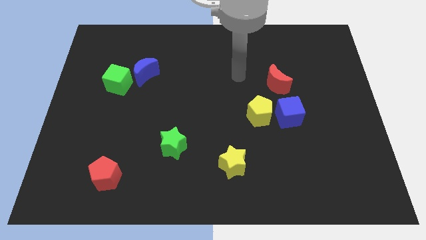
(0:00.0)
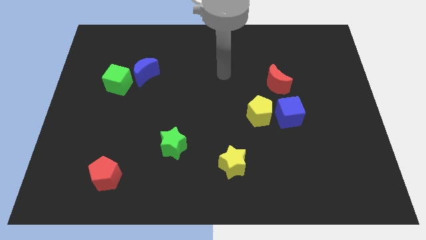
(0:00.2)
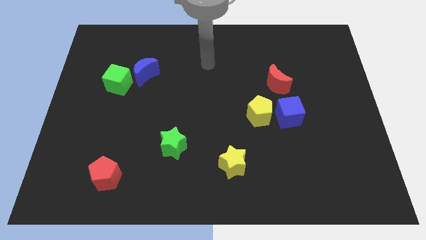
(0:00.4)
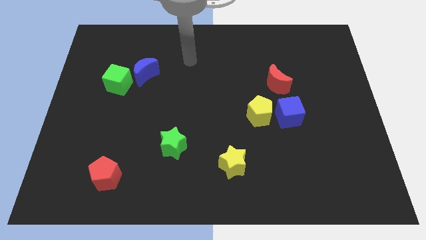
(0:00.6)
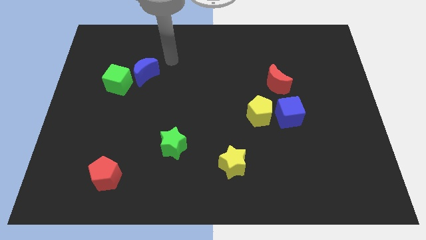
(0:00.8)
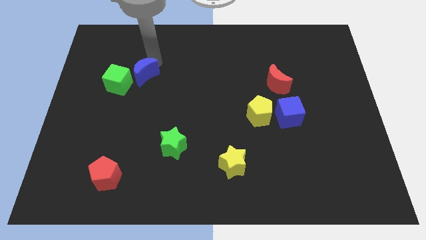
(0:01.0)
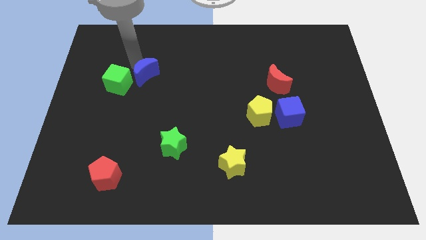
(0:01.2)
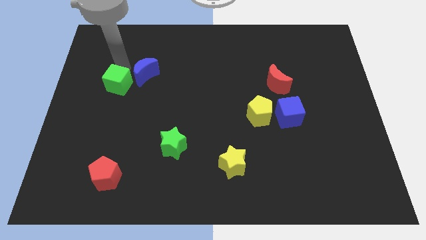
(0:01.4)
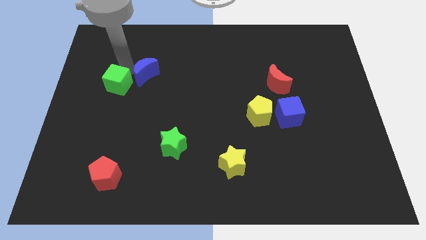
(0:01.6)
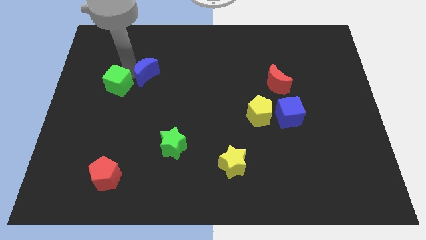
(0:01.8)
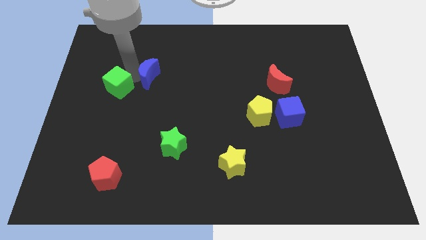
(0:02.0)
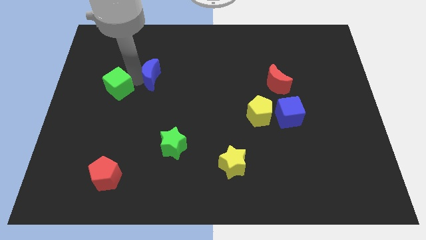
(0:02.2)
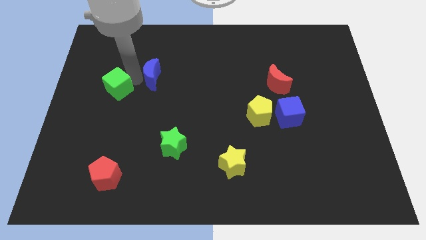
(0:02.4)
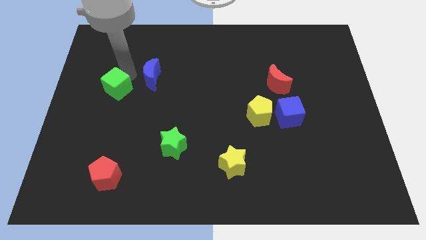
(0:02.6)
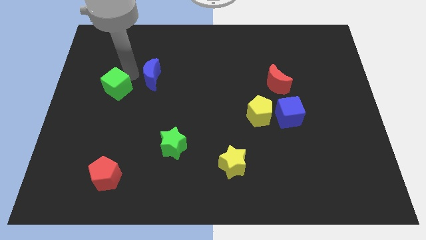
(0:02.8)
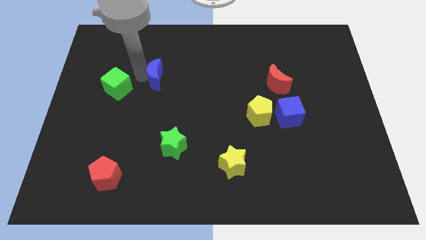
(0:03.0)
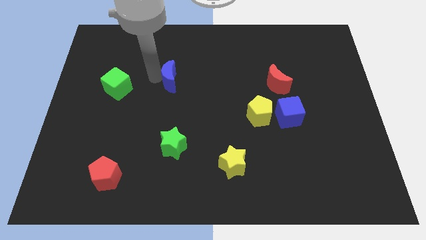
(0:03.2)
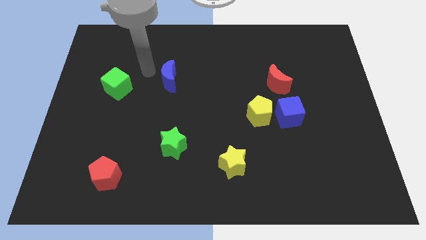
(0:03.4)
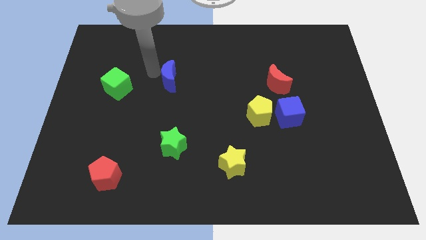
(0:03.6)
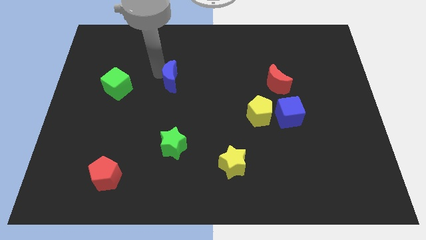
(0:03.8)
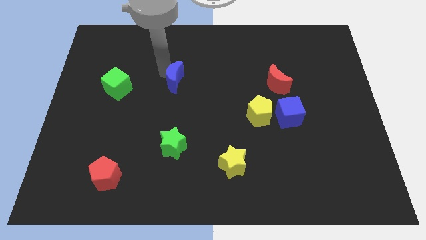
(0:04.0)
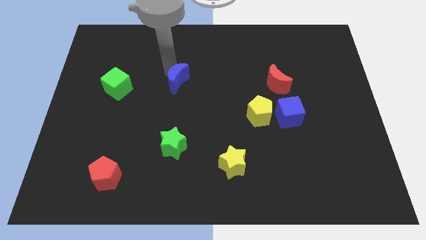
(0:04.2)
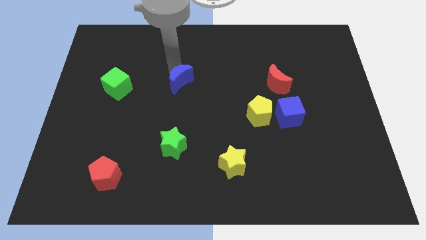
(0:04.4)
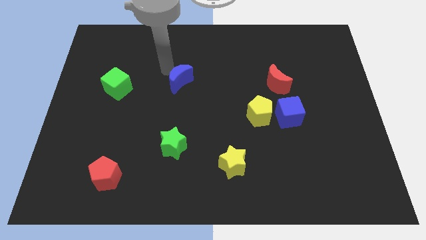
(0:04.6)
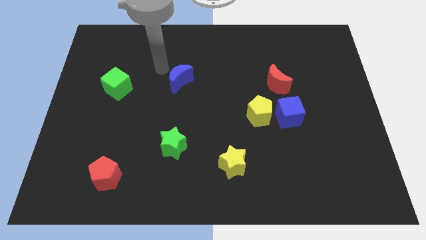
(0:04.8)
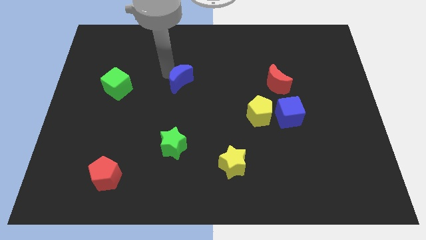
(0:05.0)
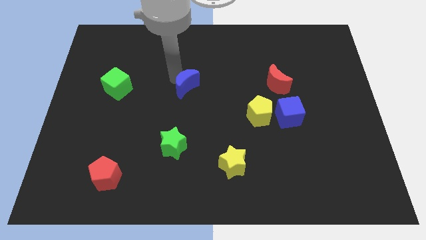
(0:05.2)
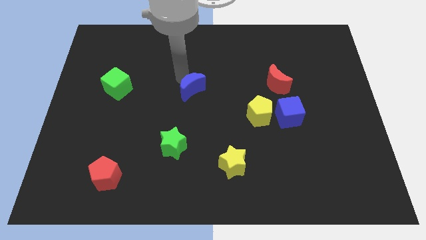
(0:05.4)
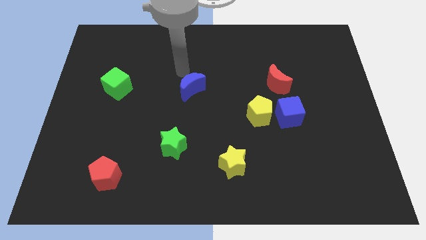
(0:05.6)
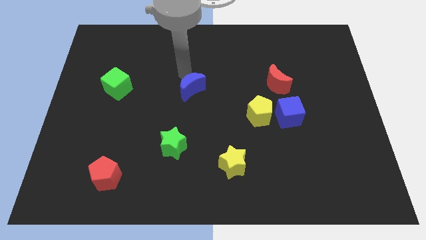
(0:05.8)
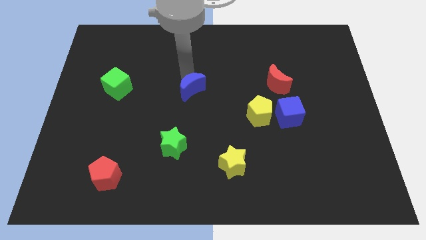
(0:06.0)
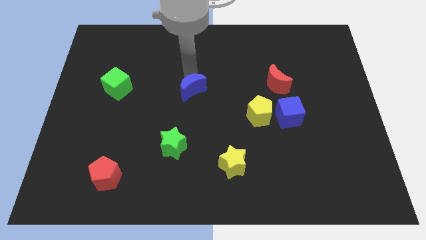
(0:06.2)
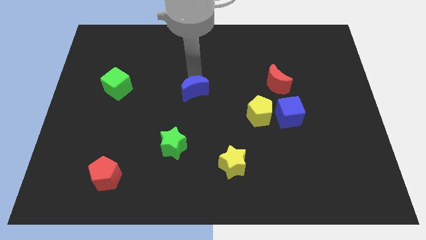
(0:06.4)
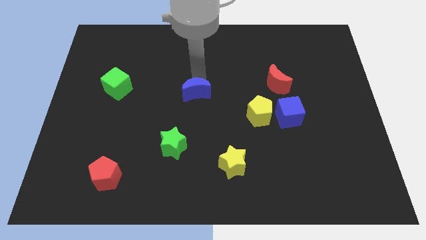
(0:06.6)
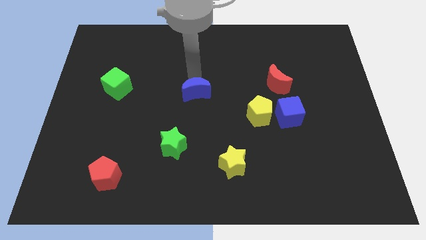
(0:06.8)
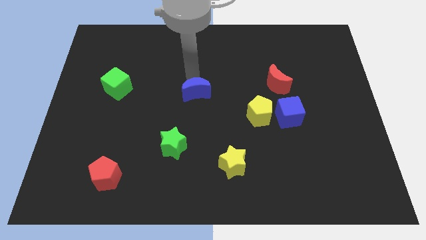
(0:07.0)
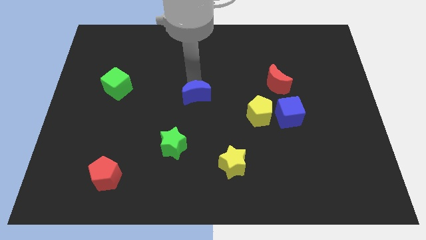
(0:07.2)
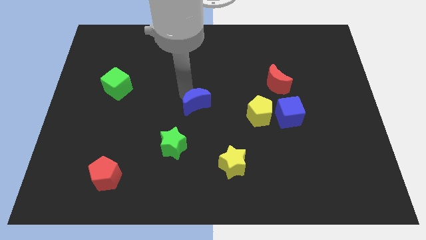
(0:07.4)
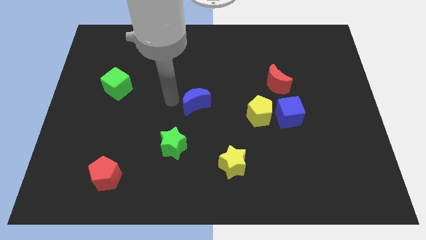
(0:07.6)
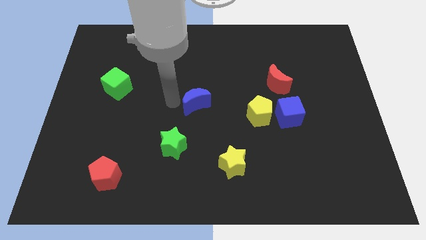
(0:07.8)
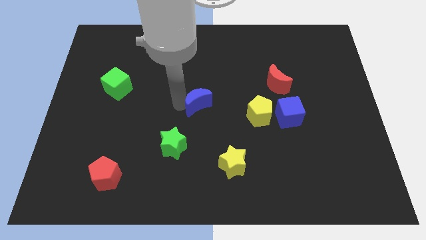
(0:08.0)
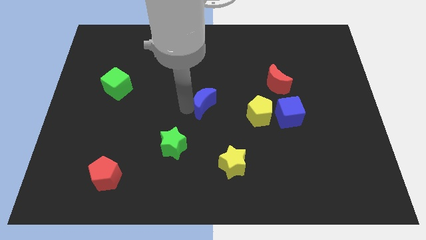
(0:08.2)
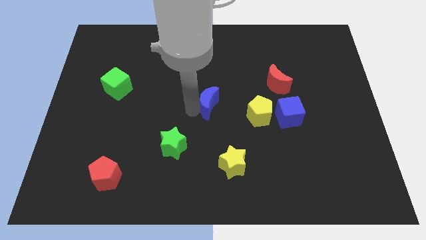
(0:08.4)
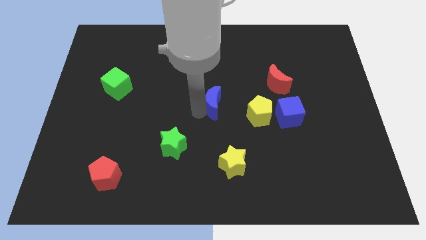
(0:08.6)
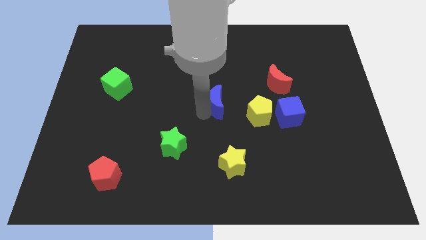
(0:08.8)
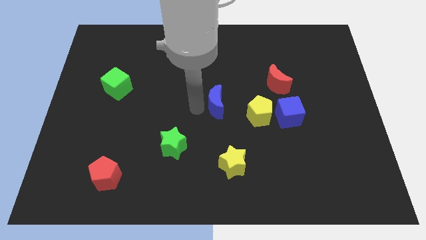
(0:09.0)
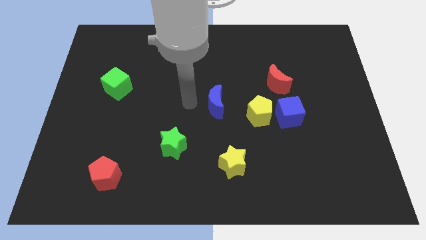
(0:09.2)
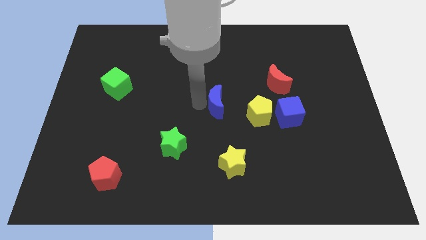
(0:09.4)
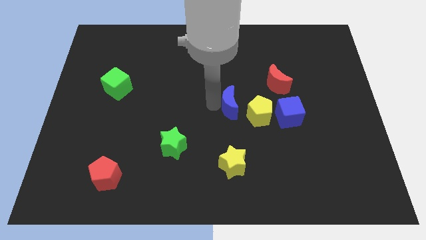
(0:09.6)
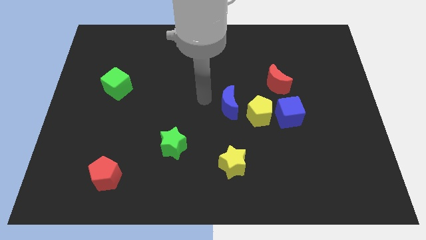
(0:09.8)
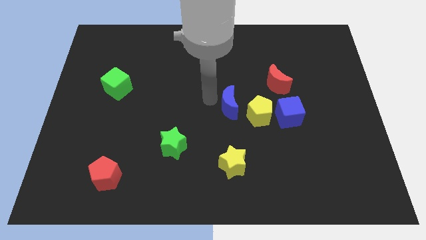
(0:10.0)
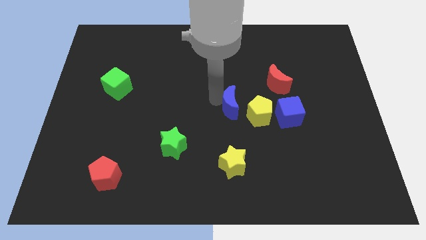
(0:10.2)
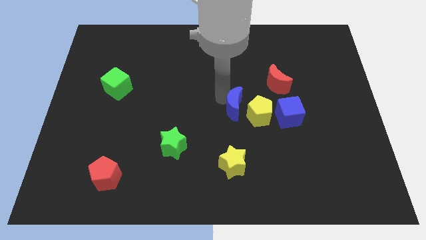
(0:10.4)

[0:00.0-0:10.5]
move the blue moon towards the yellow pentagon

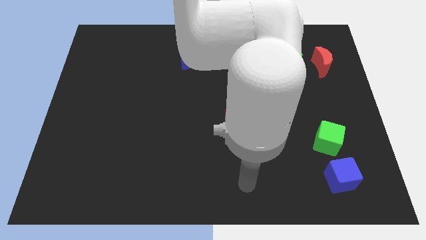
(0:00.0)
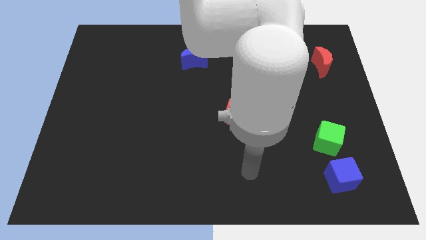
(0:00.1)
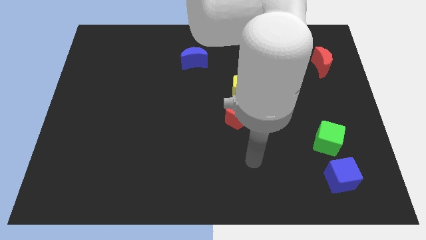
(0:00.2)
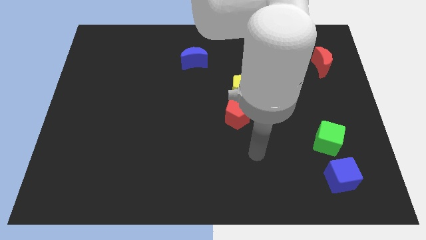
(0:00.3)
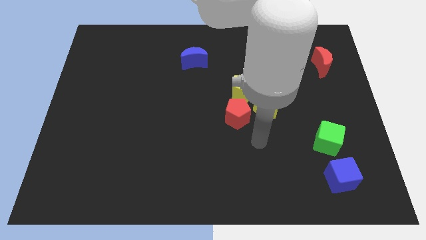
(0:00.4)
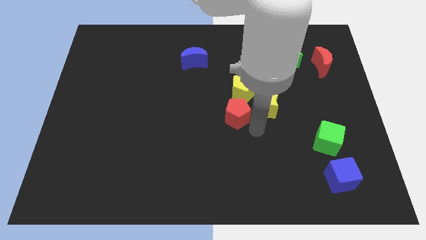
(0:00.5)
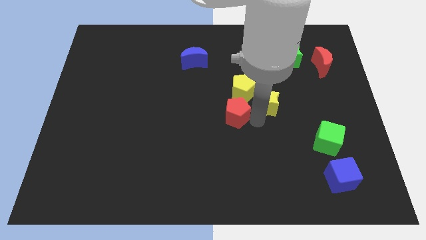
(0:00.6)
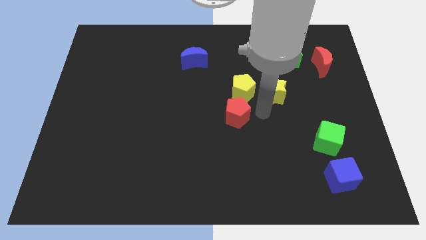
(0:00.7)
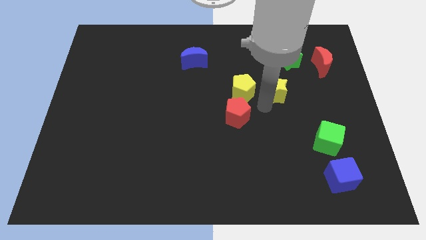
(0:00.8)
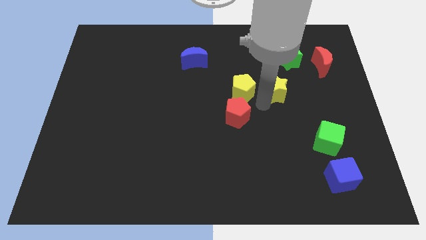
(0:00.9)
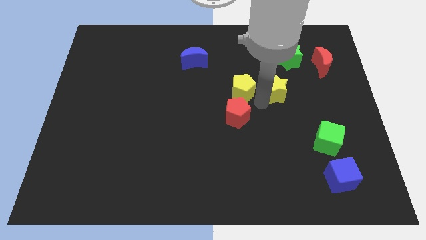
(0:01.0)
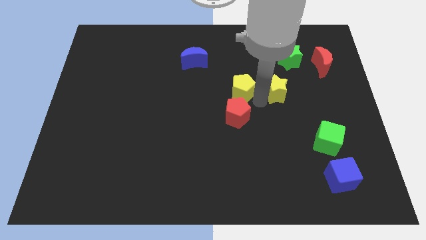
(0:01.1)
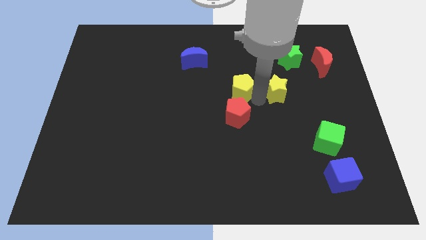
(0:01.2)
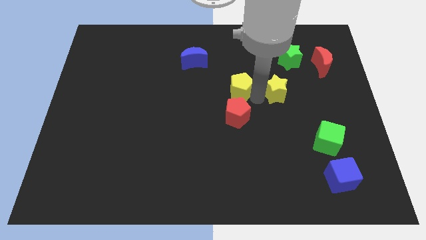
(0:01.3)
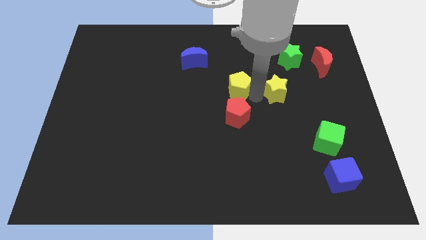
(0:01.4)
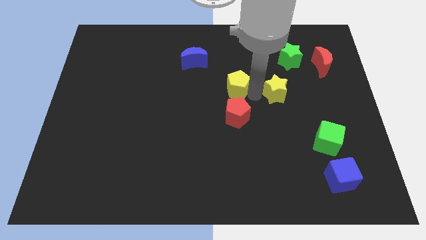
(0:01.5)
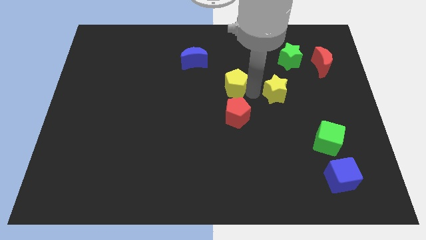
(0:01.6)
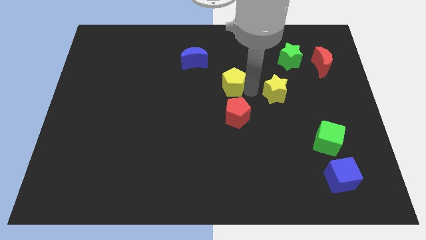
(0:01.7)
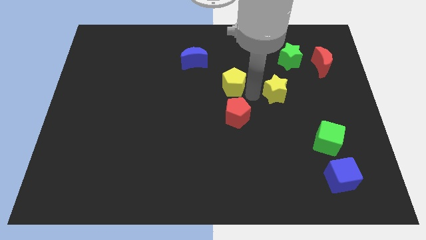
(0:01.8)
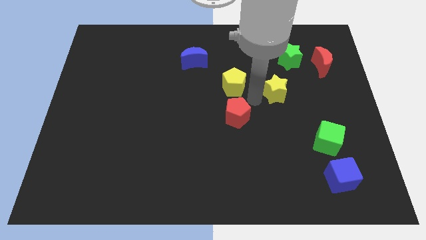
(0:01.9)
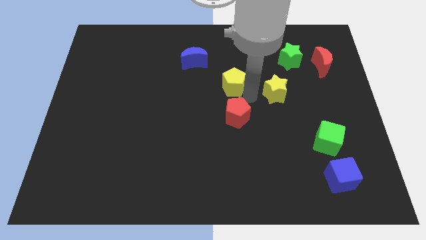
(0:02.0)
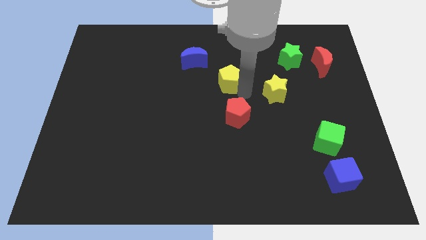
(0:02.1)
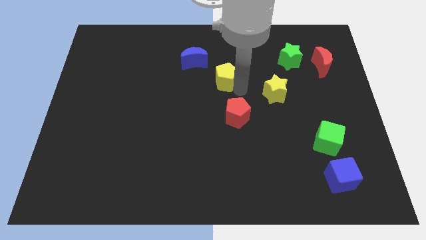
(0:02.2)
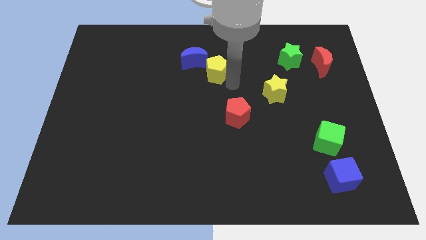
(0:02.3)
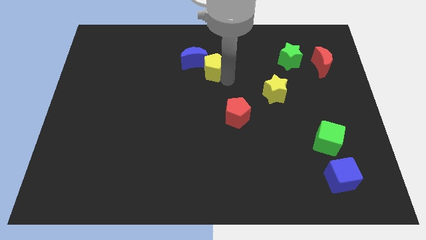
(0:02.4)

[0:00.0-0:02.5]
push the yellow pentagon towards the blue moon
